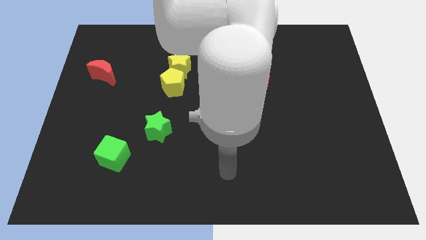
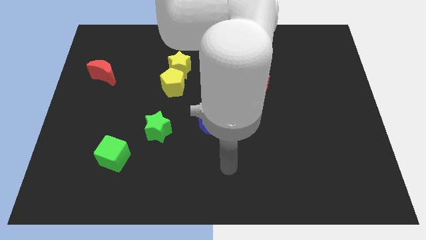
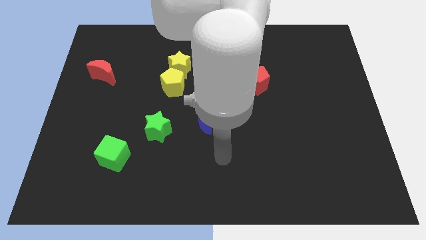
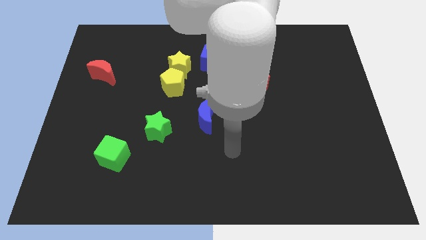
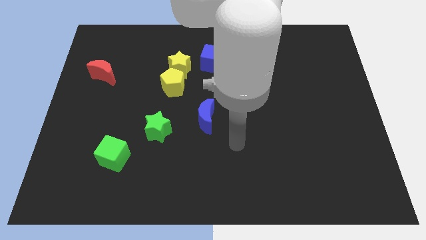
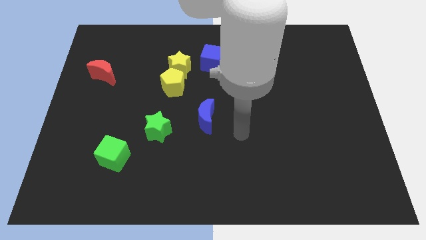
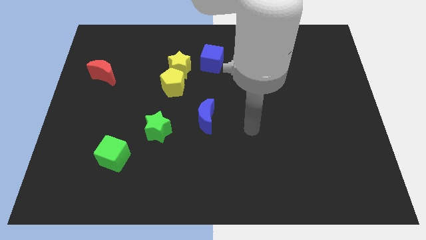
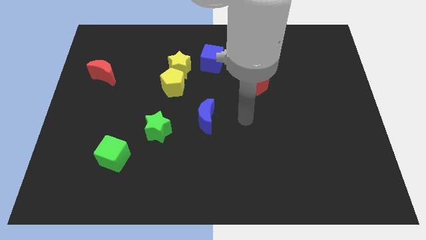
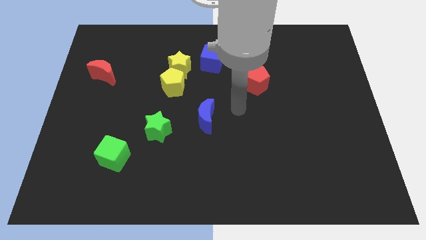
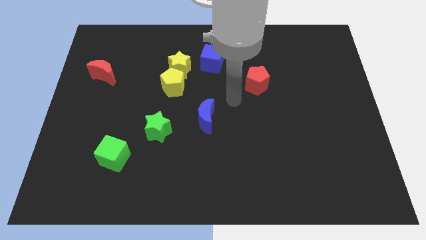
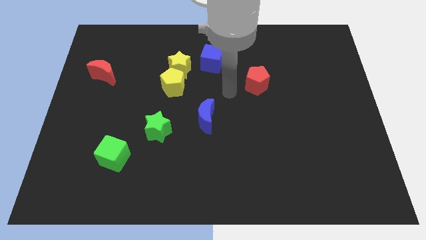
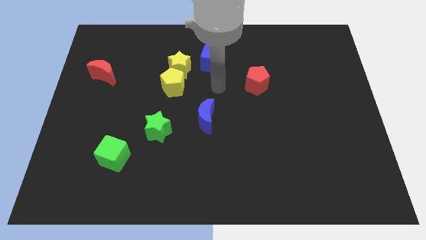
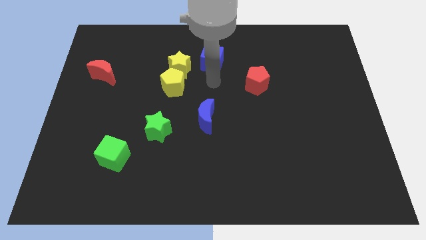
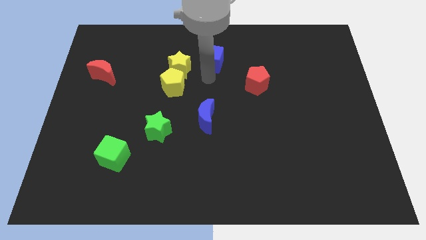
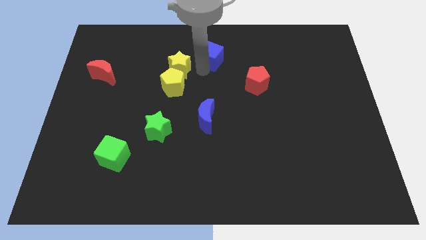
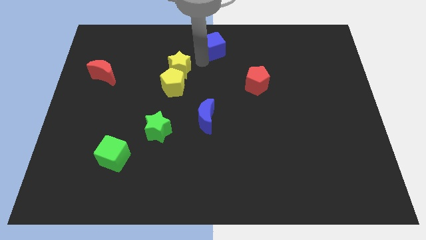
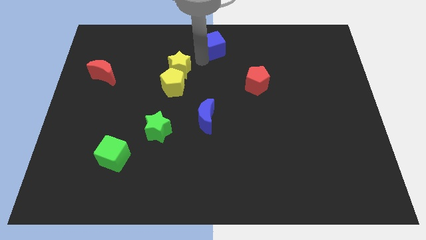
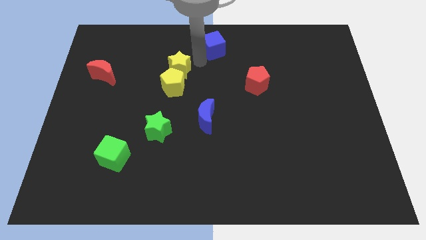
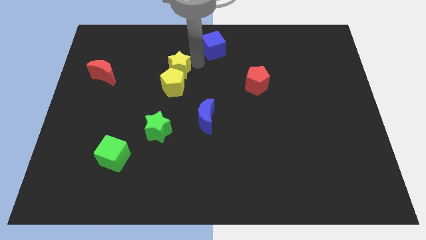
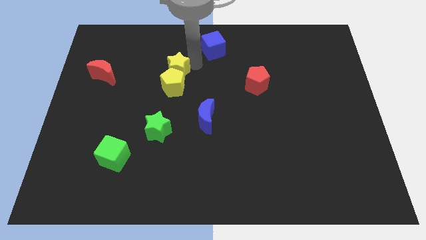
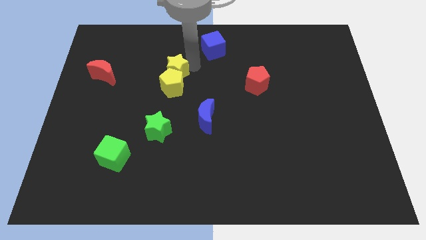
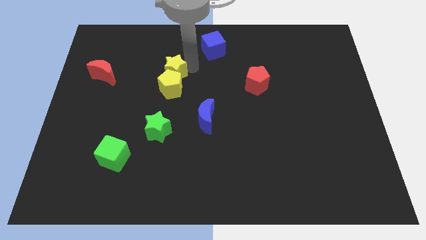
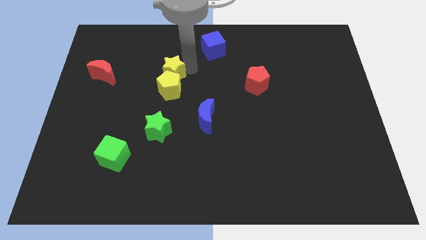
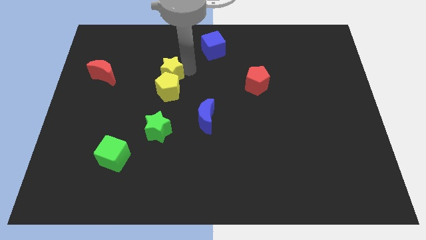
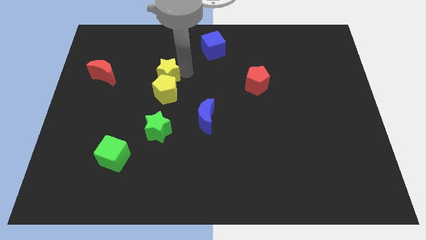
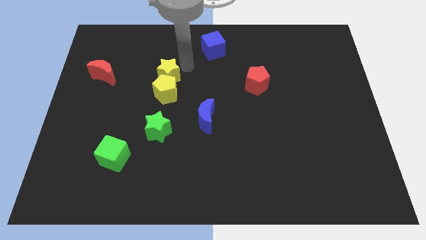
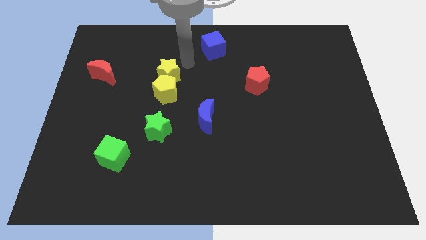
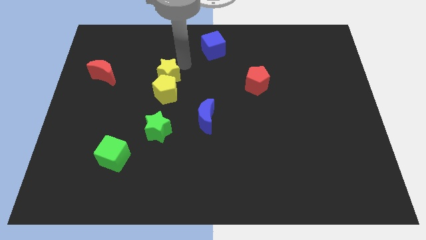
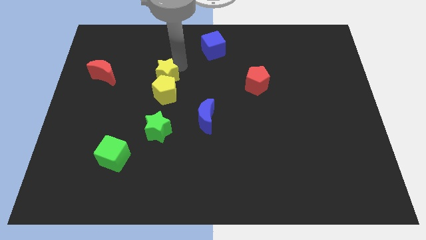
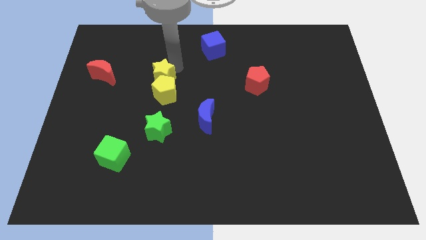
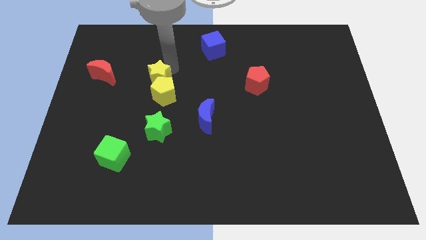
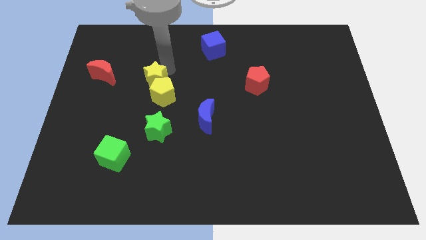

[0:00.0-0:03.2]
push the yellow star slightly diagonally downwards and left

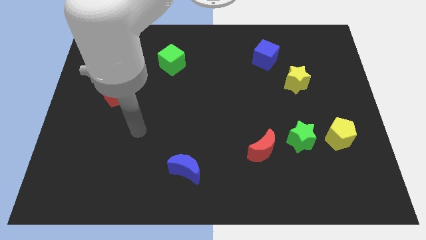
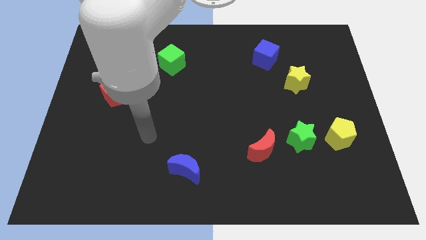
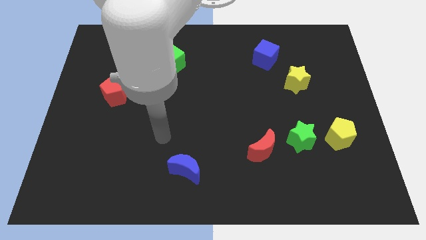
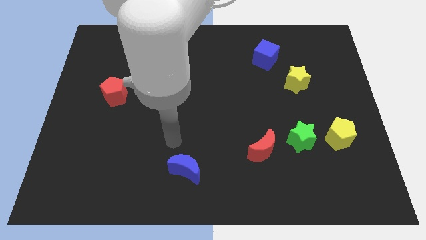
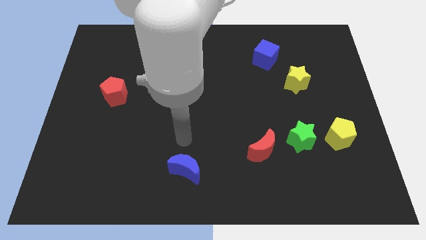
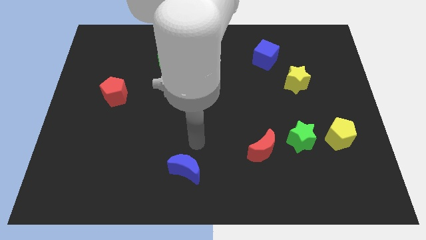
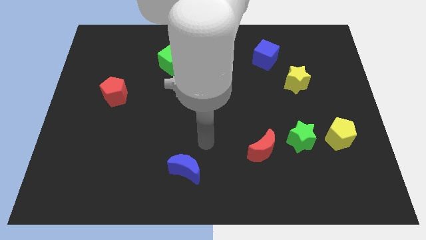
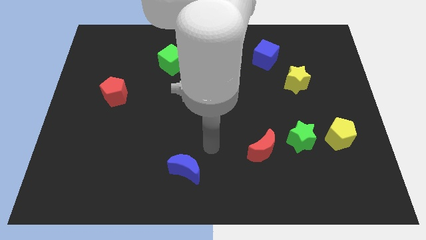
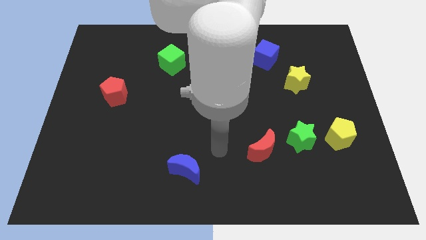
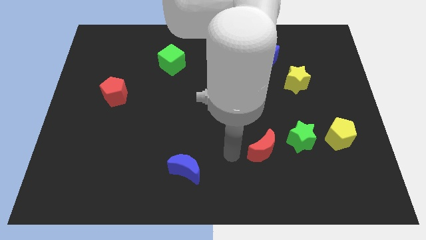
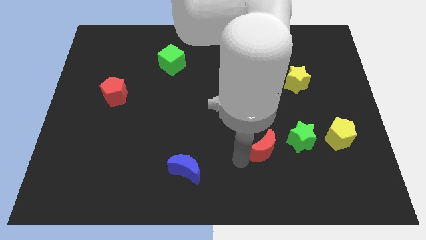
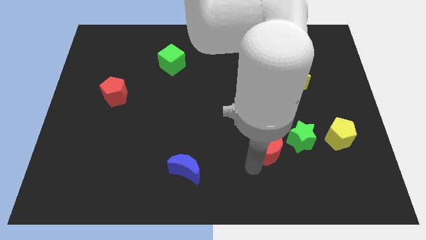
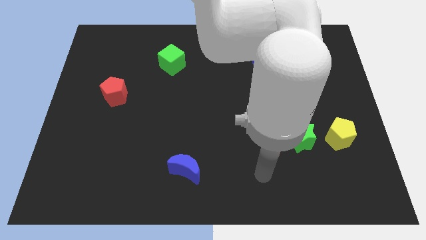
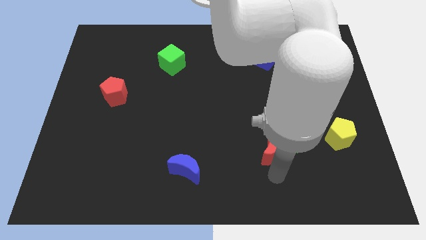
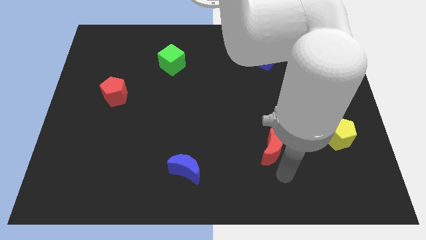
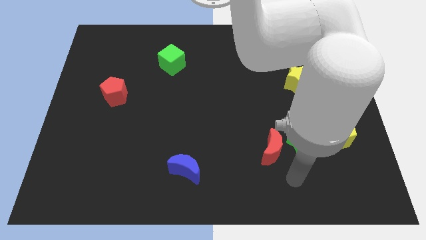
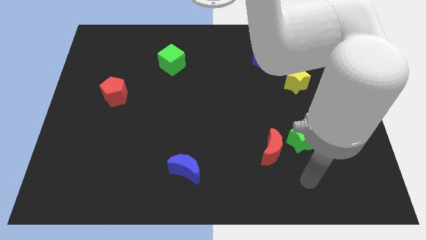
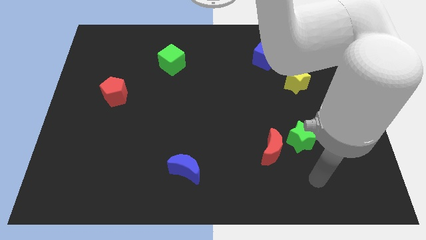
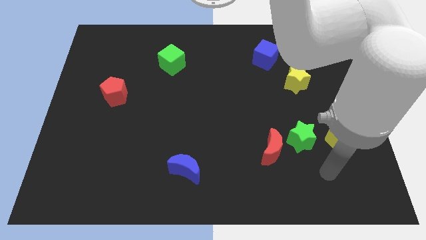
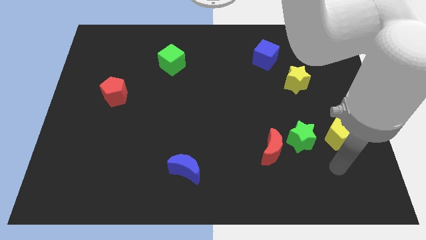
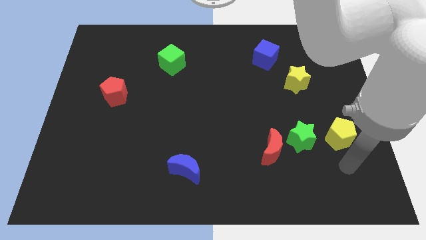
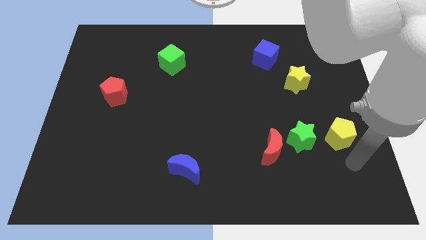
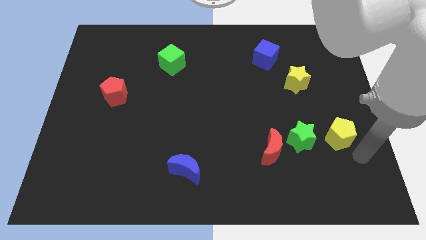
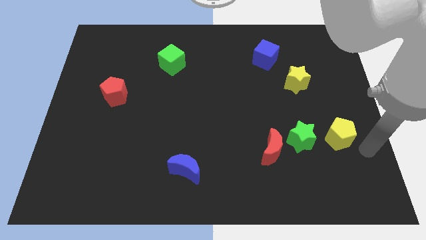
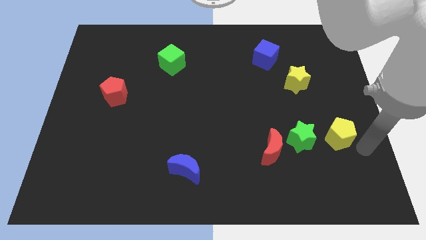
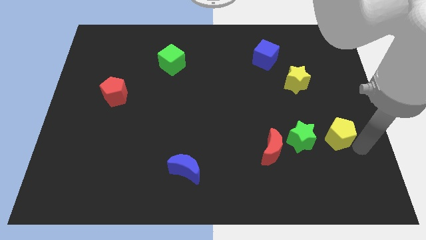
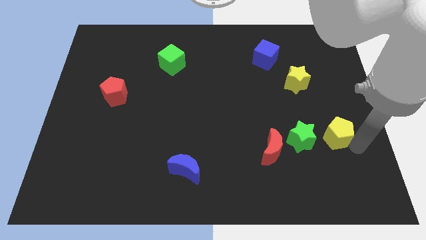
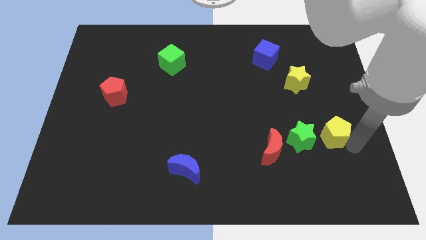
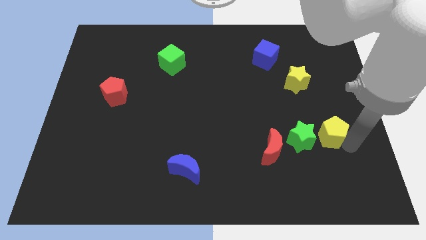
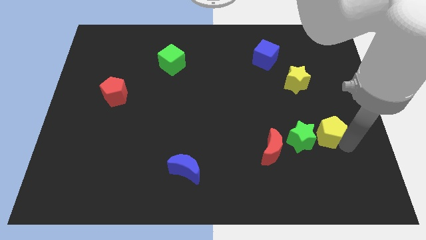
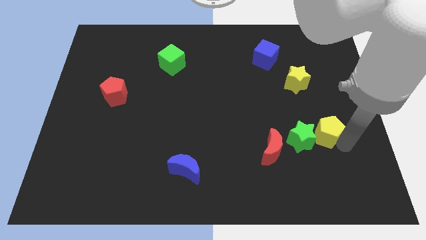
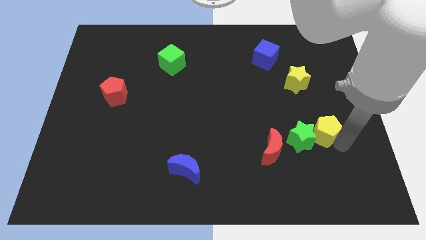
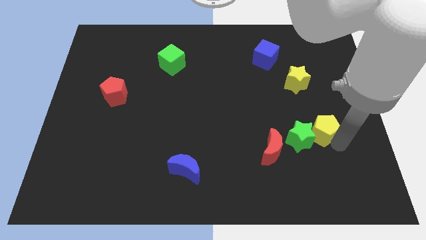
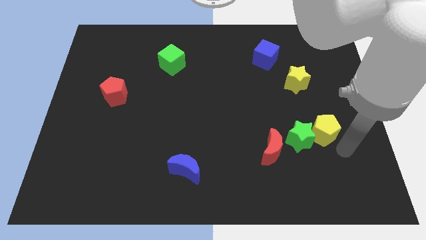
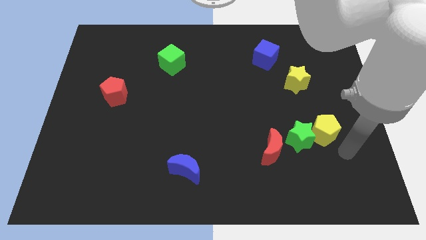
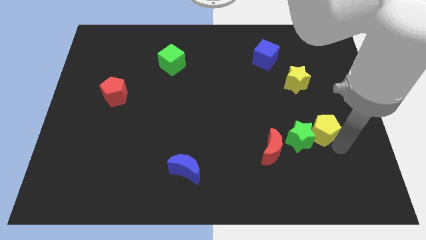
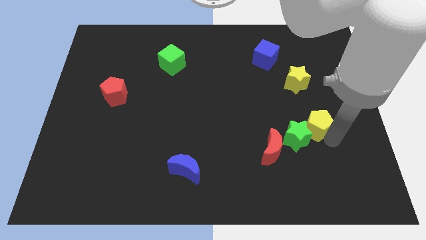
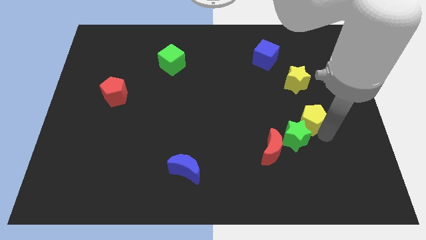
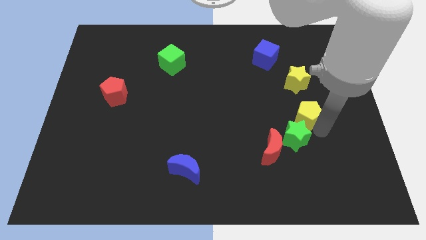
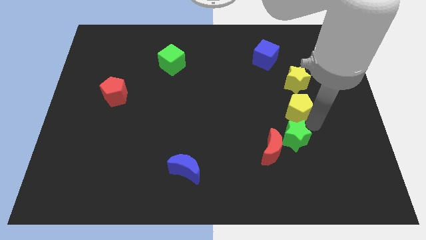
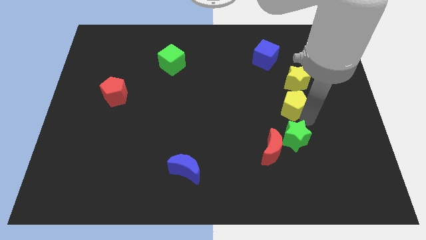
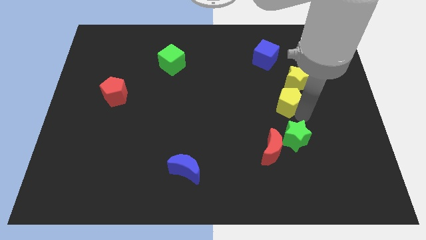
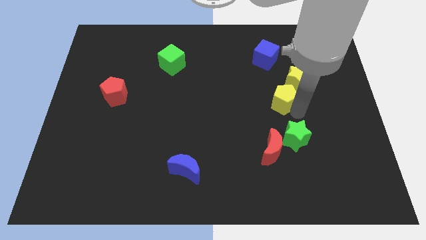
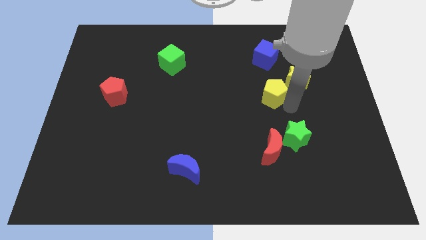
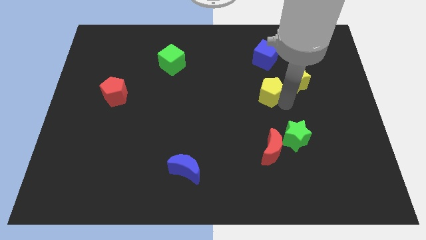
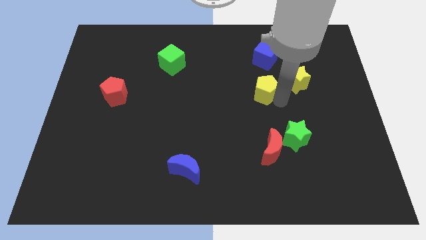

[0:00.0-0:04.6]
move the yellow pentagon up and to the left diagonally

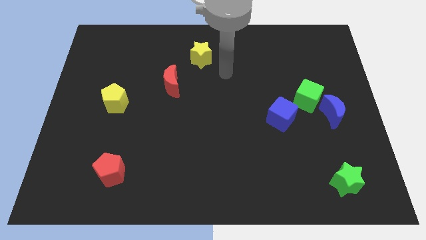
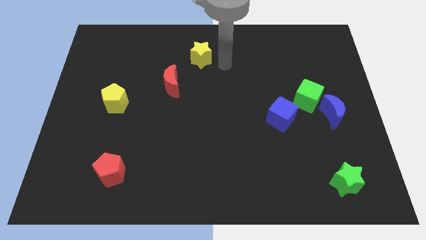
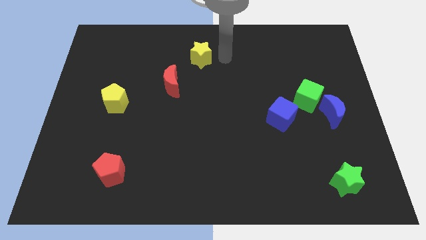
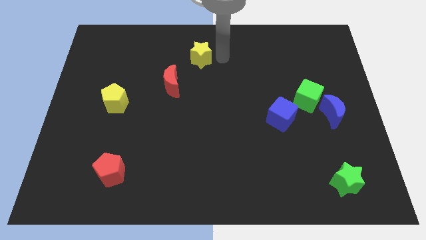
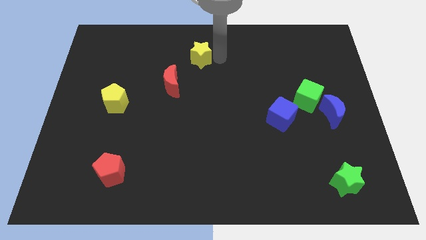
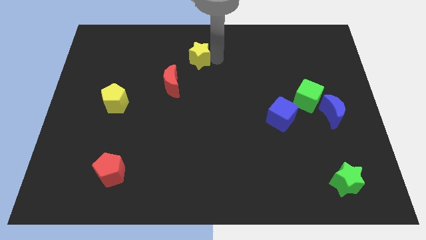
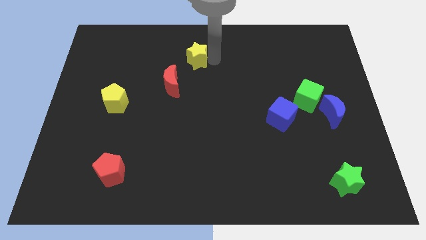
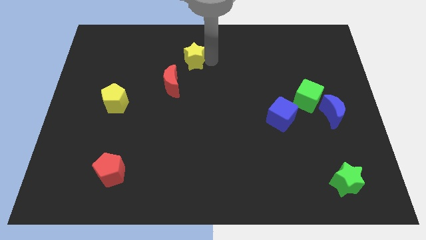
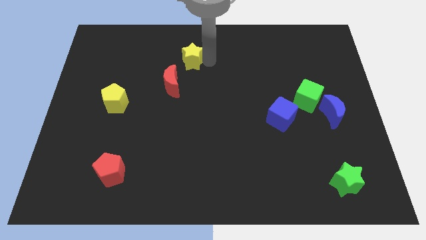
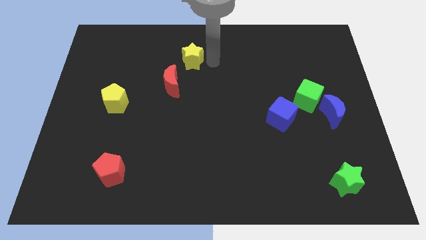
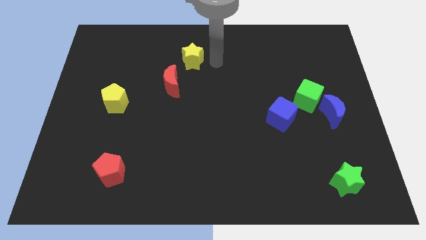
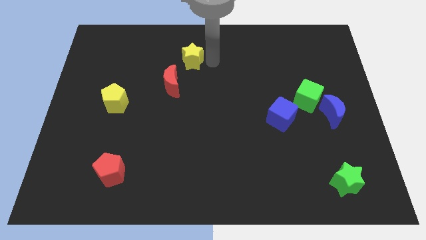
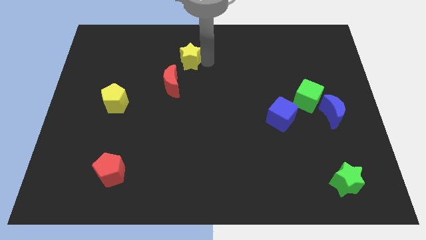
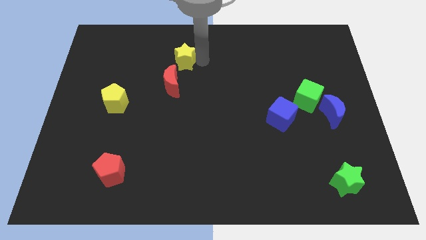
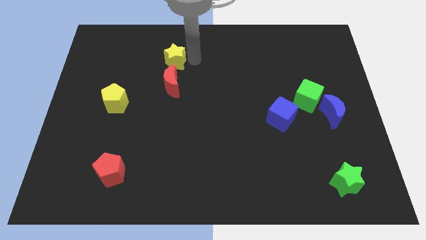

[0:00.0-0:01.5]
slightly slide the yellow star left
